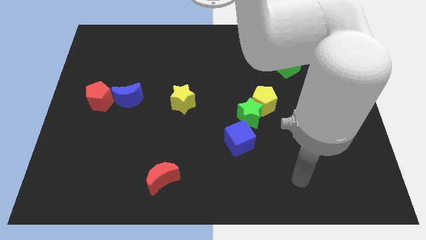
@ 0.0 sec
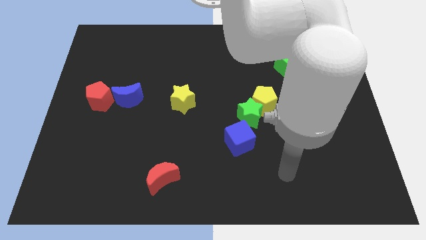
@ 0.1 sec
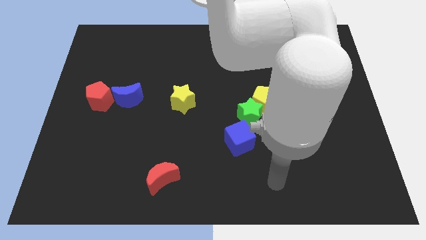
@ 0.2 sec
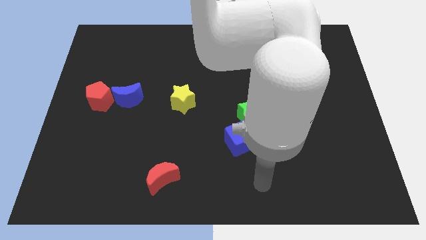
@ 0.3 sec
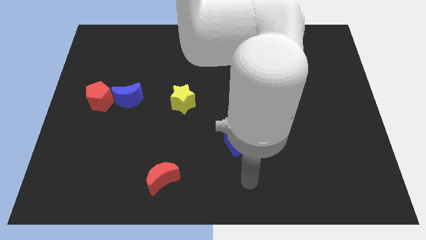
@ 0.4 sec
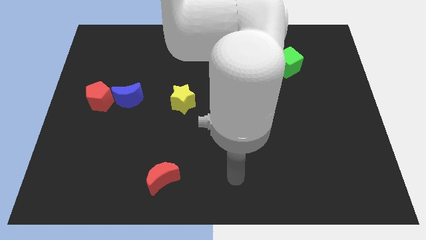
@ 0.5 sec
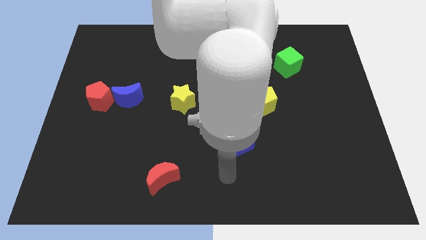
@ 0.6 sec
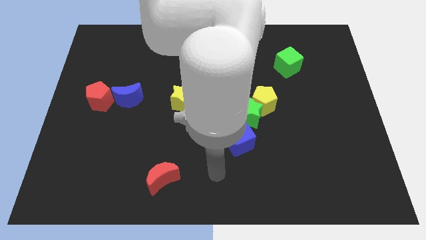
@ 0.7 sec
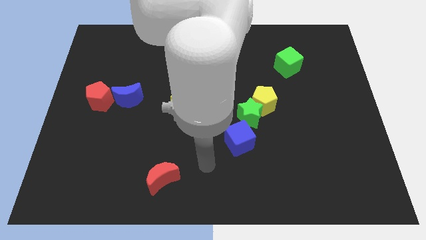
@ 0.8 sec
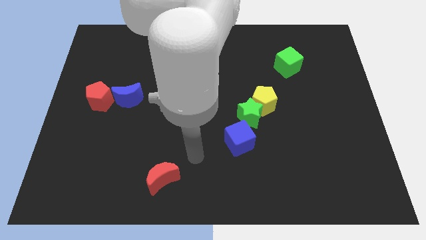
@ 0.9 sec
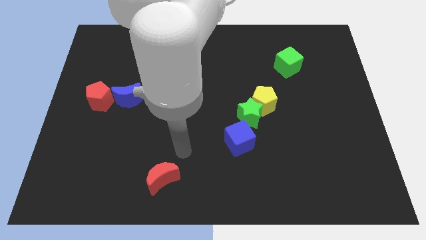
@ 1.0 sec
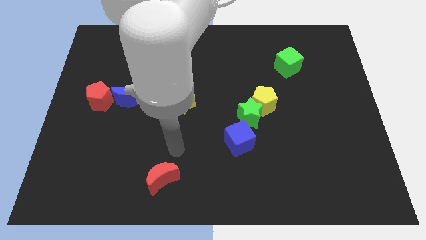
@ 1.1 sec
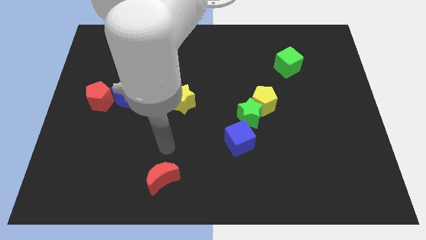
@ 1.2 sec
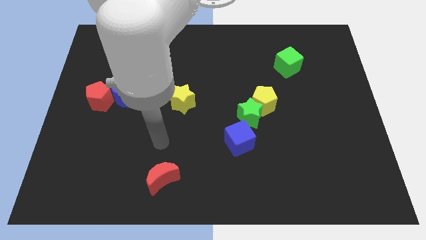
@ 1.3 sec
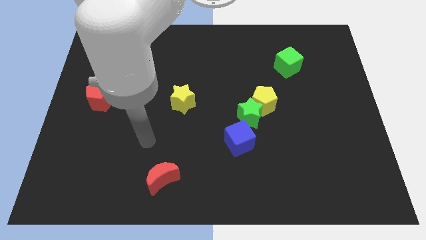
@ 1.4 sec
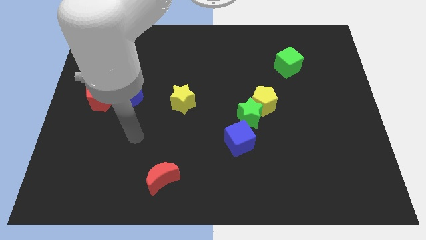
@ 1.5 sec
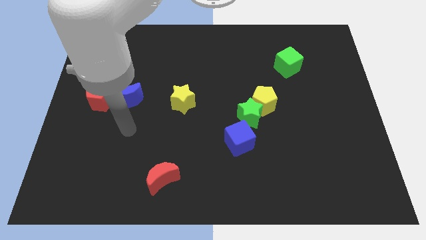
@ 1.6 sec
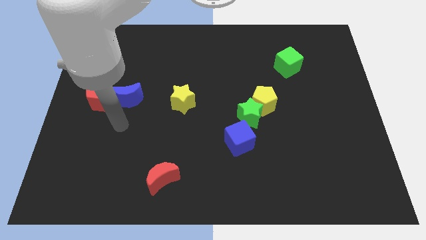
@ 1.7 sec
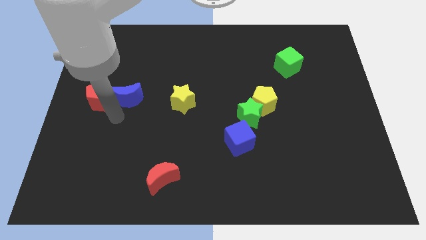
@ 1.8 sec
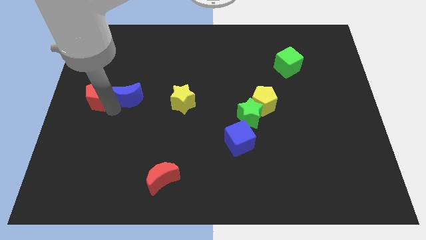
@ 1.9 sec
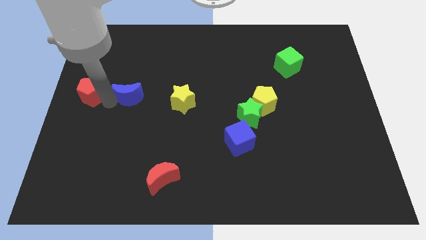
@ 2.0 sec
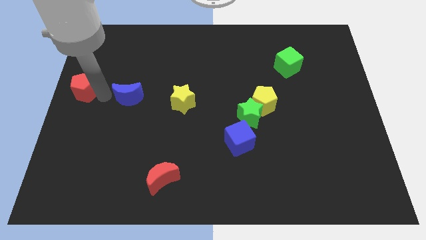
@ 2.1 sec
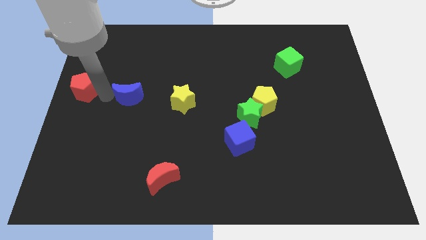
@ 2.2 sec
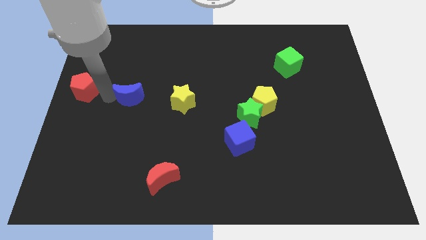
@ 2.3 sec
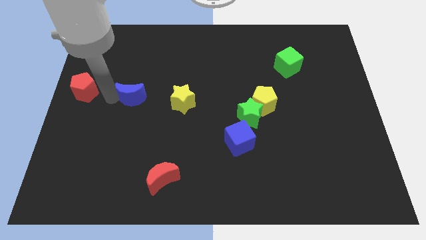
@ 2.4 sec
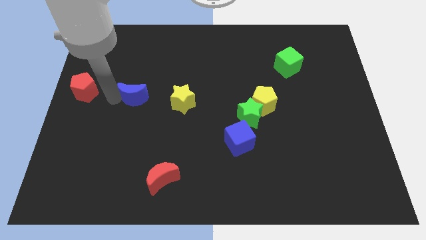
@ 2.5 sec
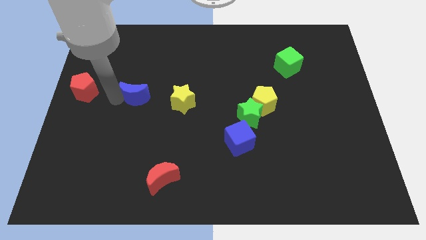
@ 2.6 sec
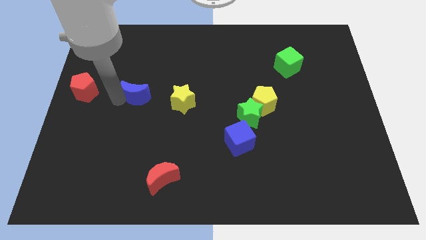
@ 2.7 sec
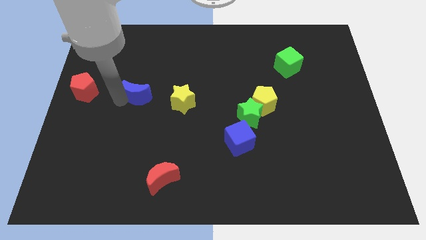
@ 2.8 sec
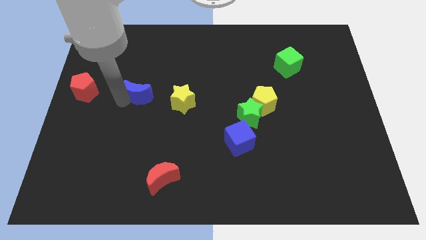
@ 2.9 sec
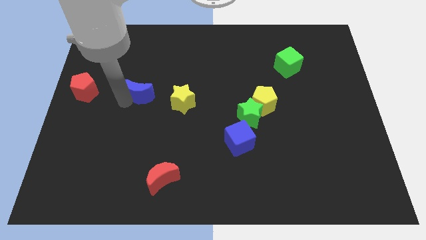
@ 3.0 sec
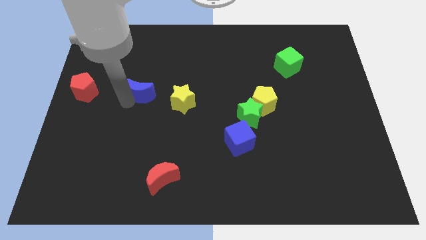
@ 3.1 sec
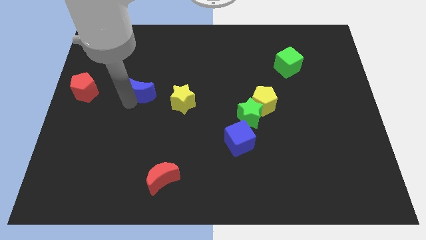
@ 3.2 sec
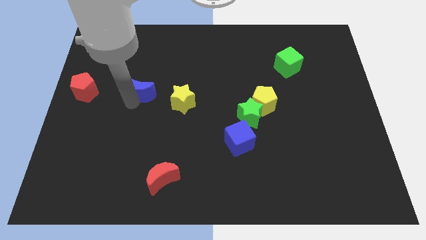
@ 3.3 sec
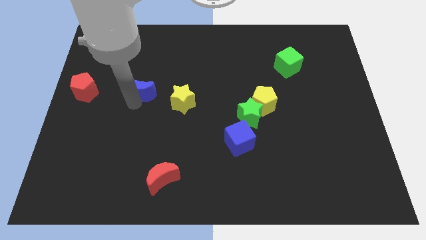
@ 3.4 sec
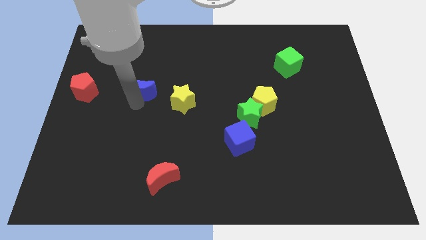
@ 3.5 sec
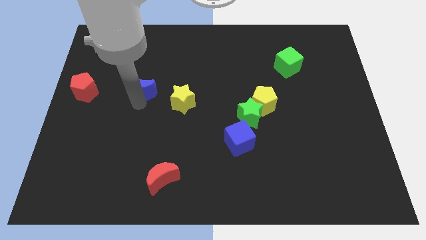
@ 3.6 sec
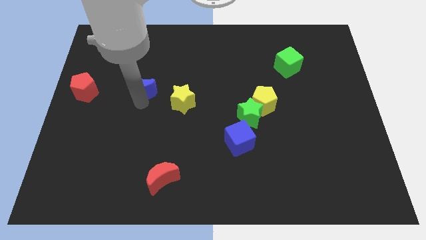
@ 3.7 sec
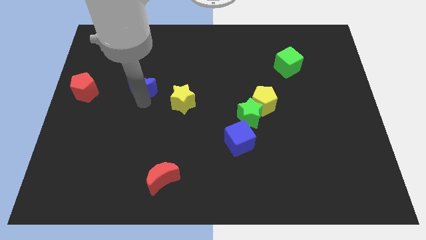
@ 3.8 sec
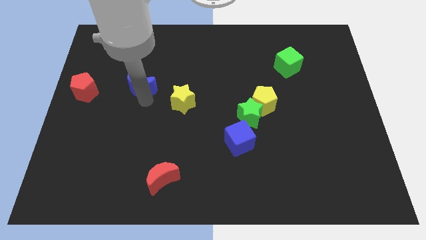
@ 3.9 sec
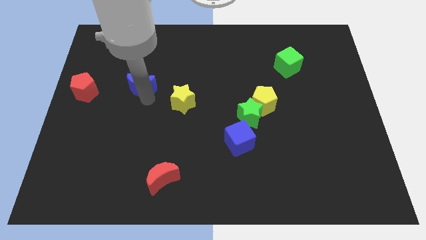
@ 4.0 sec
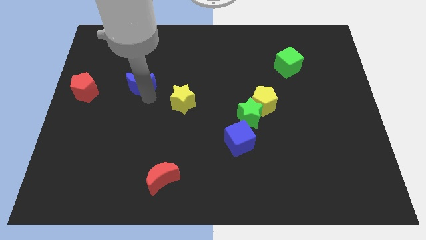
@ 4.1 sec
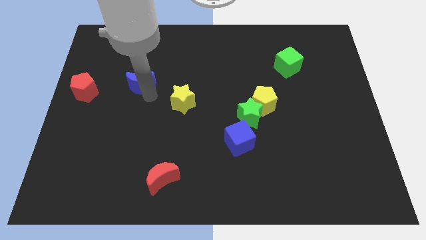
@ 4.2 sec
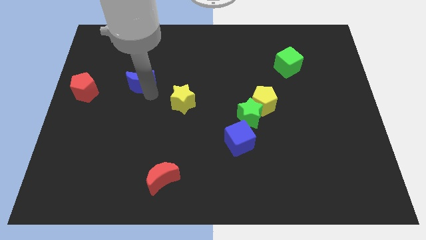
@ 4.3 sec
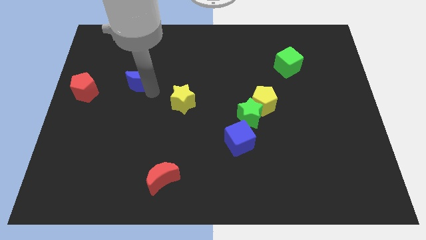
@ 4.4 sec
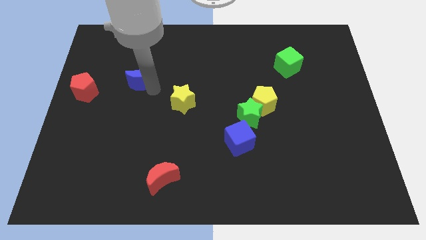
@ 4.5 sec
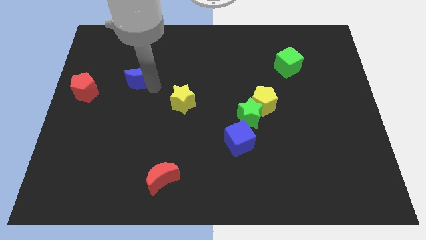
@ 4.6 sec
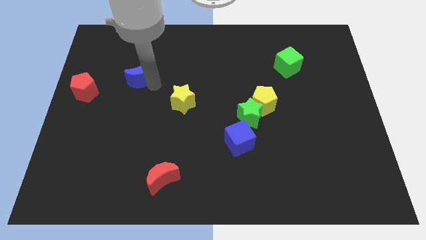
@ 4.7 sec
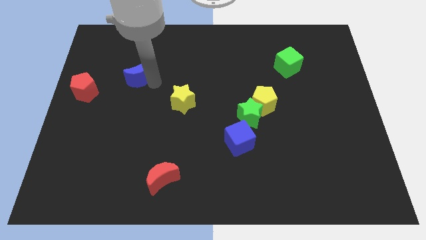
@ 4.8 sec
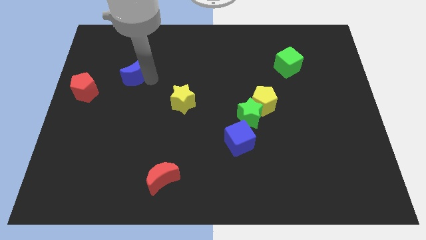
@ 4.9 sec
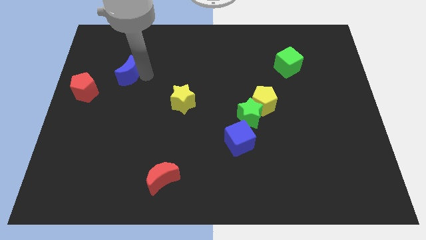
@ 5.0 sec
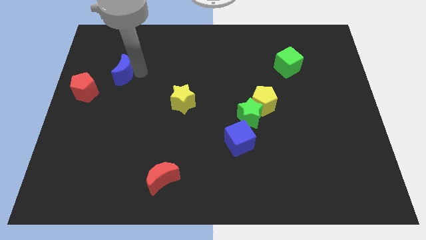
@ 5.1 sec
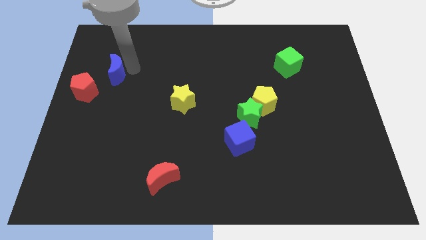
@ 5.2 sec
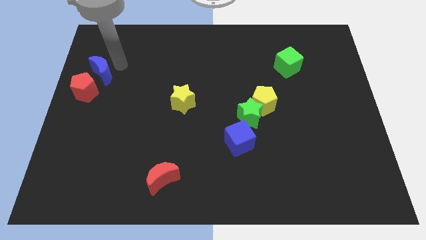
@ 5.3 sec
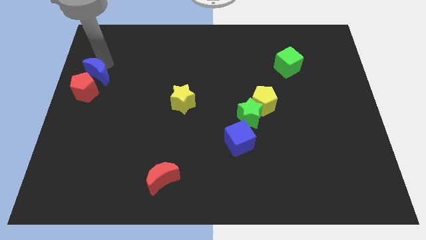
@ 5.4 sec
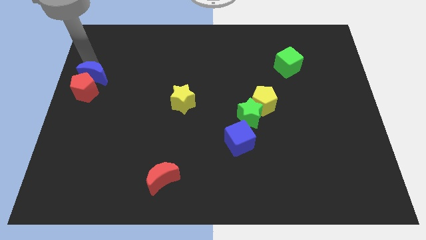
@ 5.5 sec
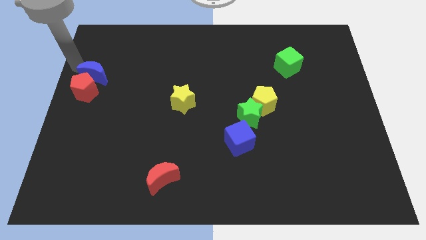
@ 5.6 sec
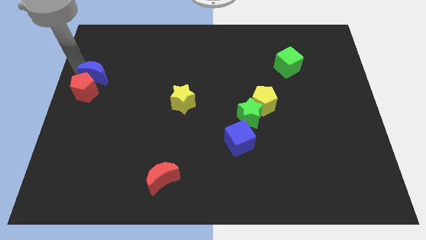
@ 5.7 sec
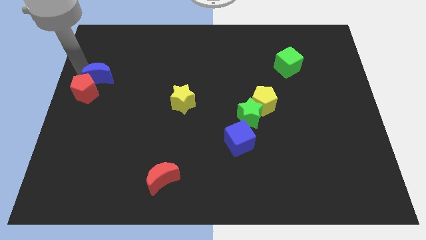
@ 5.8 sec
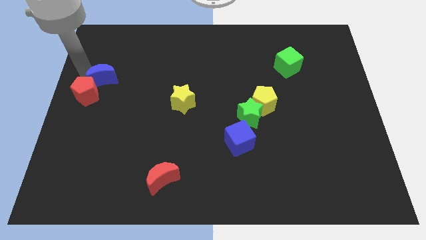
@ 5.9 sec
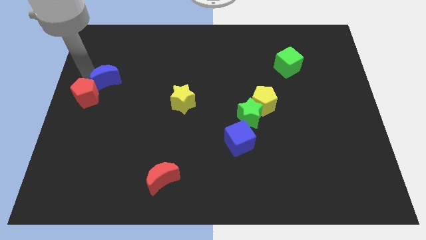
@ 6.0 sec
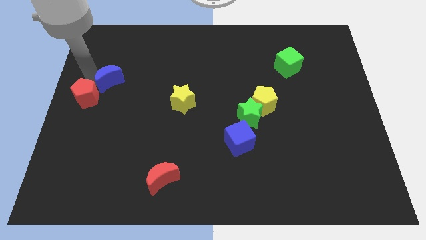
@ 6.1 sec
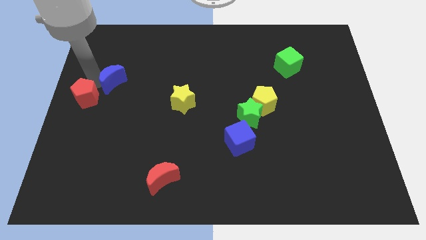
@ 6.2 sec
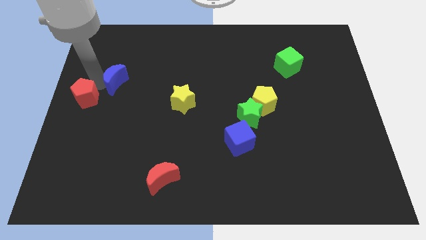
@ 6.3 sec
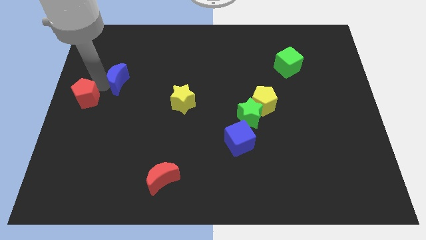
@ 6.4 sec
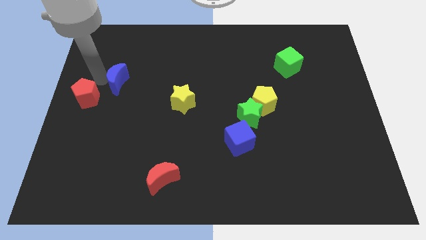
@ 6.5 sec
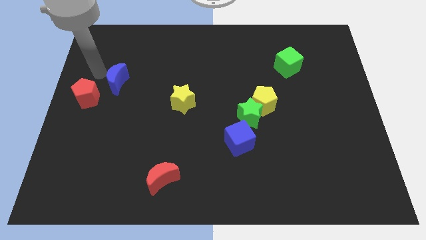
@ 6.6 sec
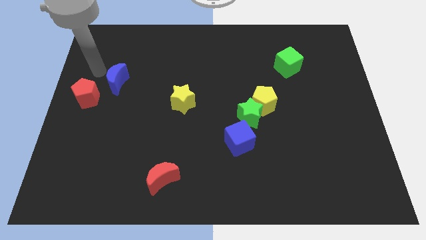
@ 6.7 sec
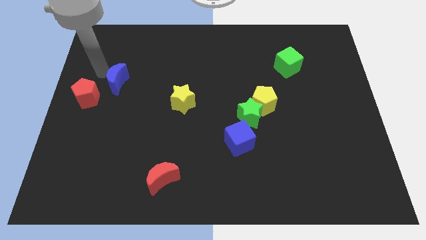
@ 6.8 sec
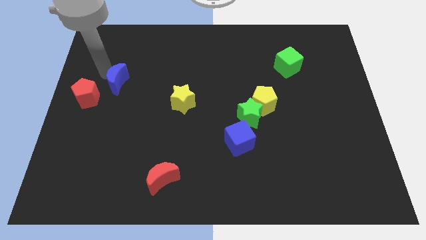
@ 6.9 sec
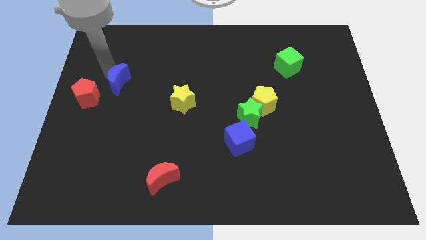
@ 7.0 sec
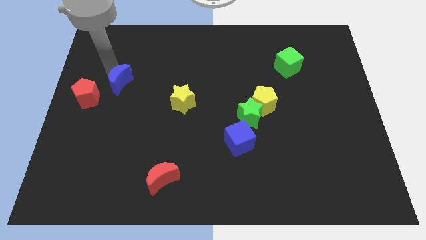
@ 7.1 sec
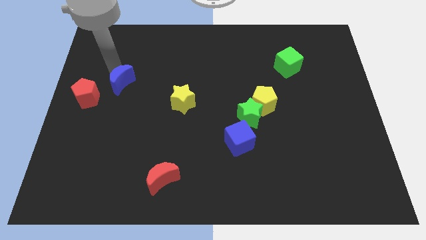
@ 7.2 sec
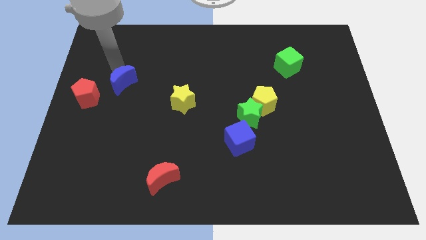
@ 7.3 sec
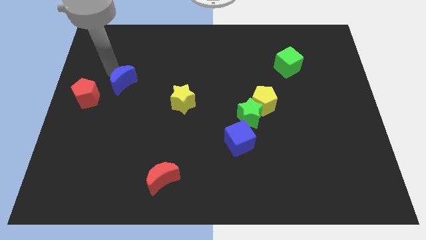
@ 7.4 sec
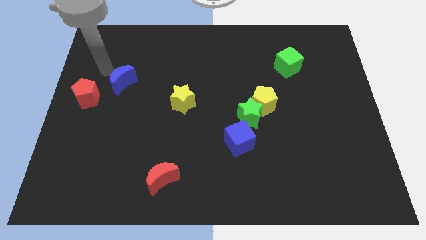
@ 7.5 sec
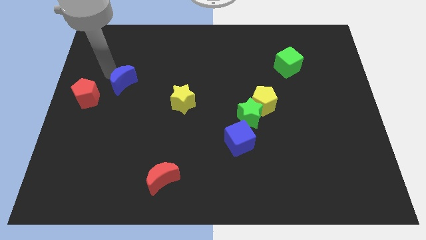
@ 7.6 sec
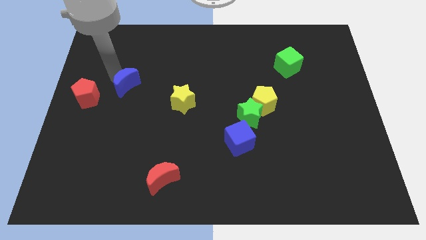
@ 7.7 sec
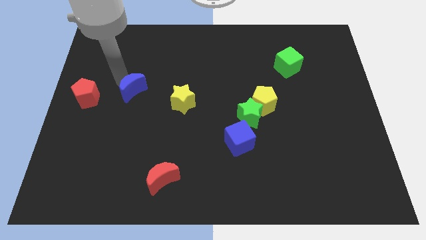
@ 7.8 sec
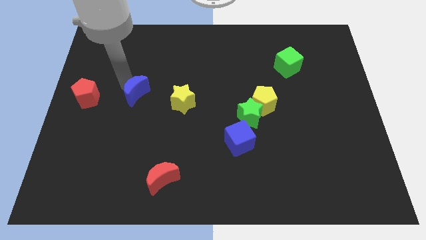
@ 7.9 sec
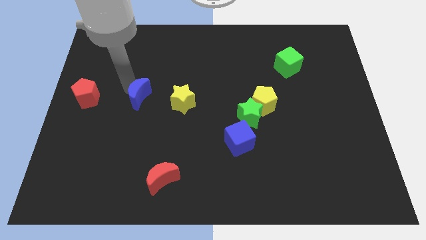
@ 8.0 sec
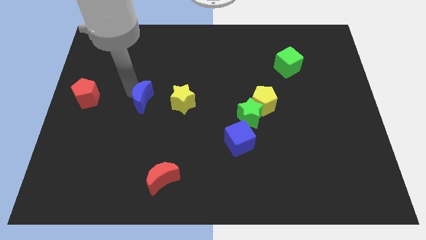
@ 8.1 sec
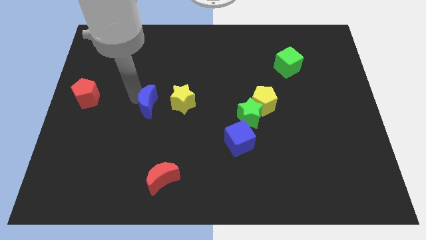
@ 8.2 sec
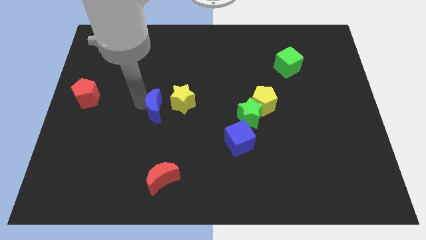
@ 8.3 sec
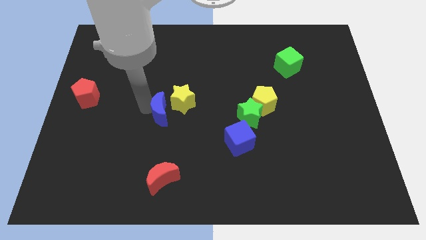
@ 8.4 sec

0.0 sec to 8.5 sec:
move the blue moon close to the yellow star
